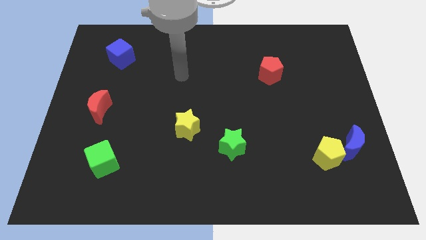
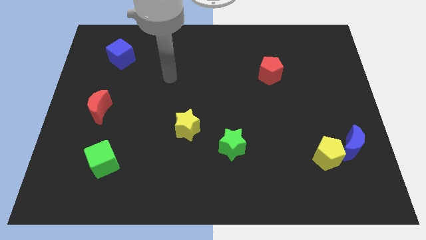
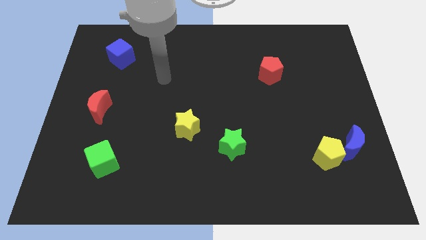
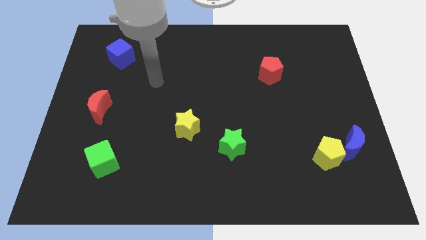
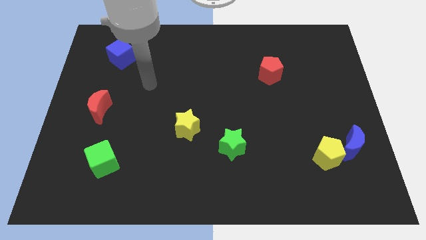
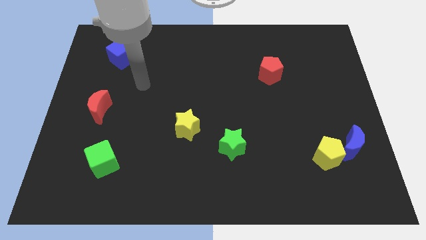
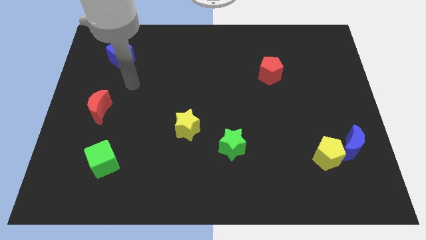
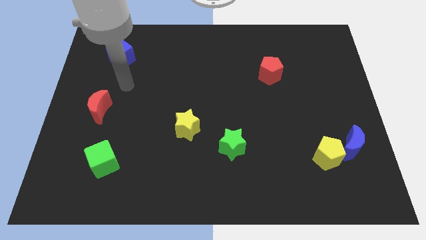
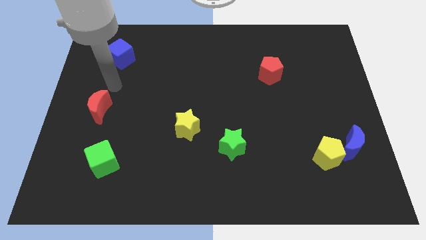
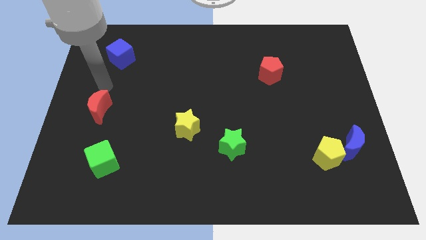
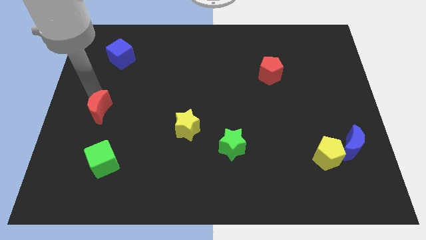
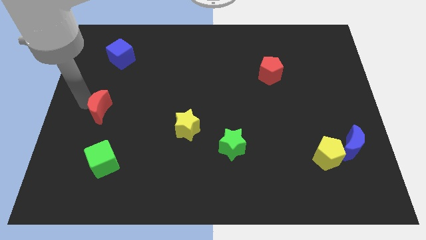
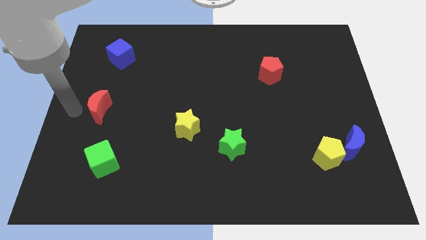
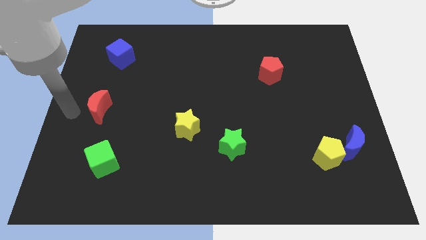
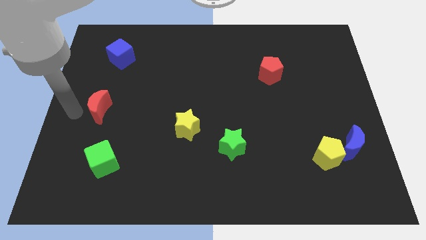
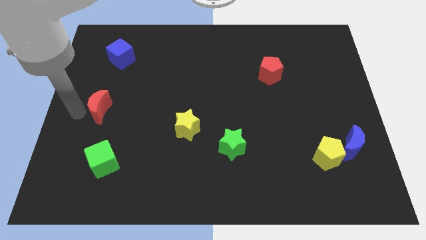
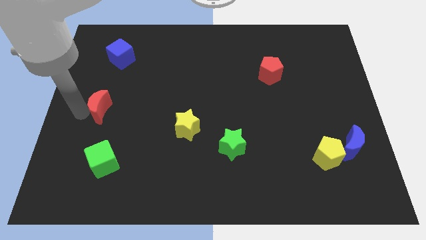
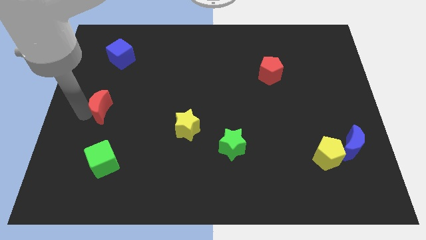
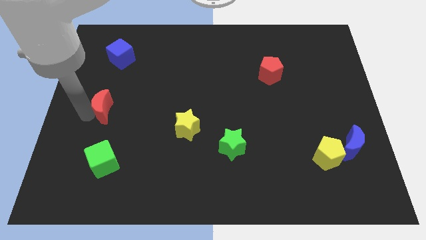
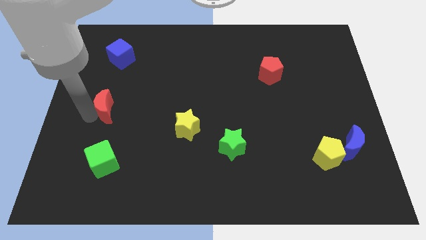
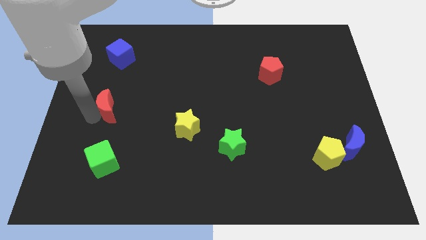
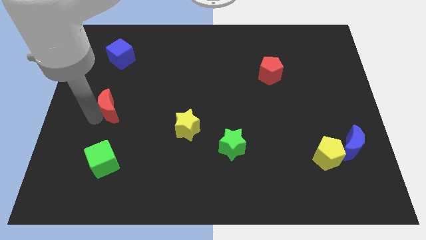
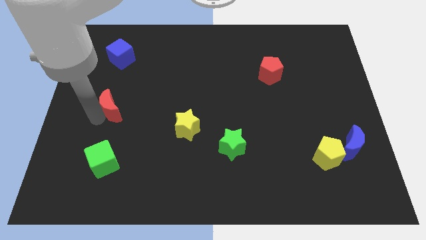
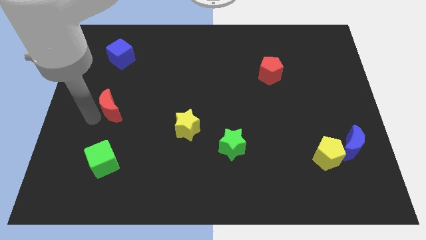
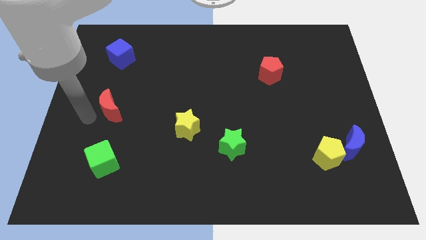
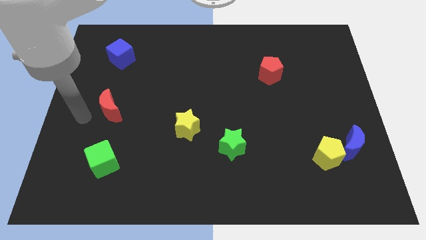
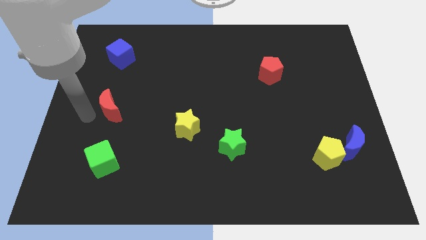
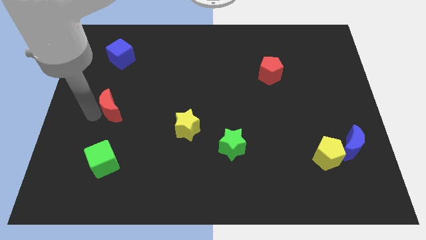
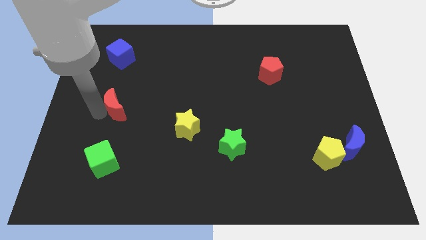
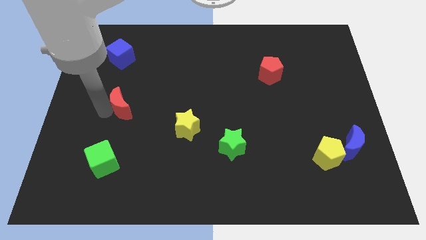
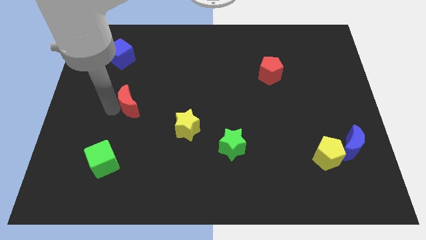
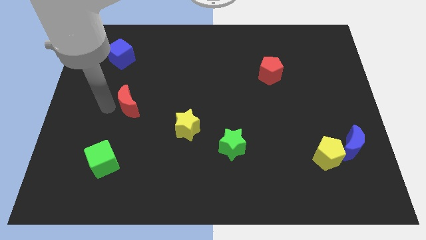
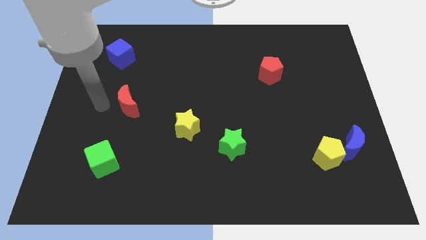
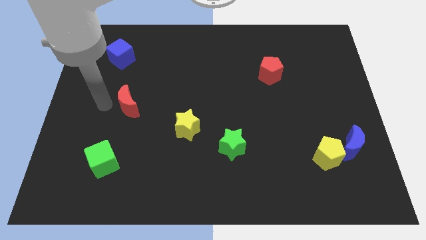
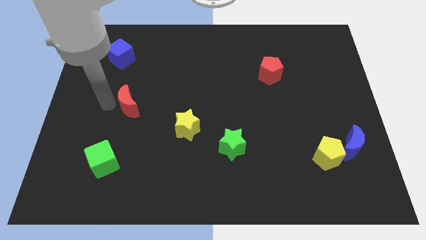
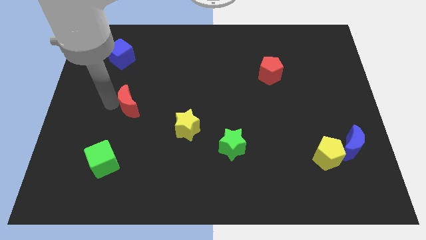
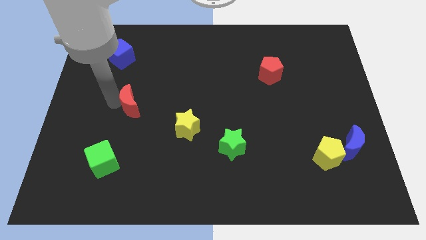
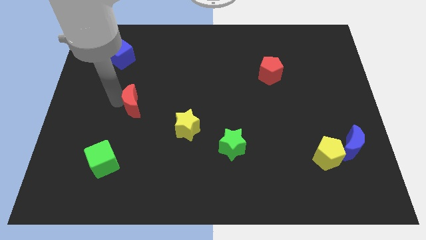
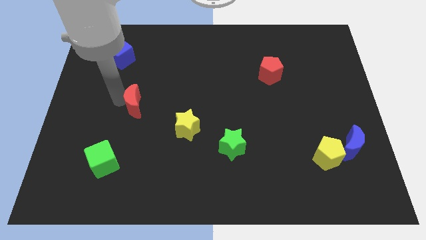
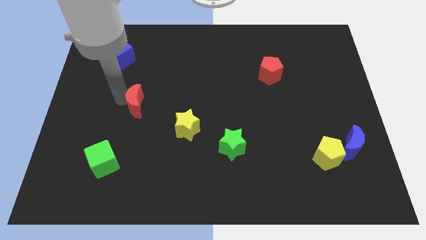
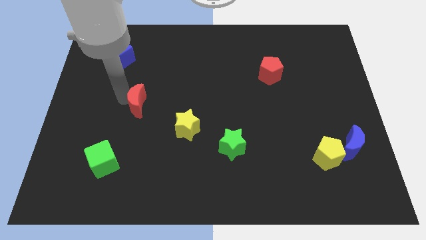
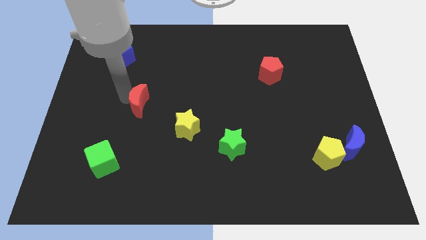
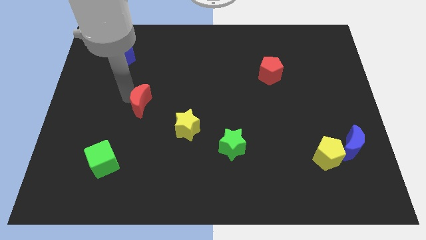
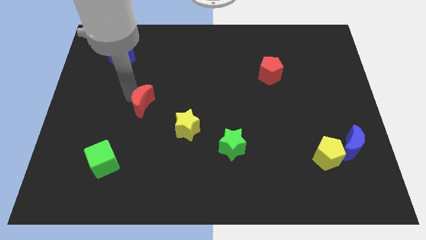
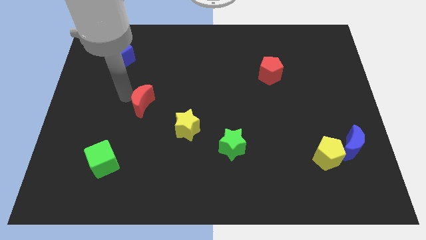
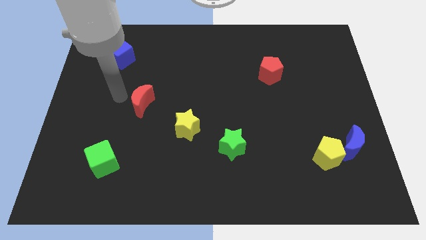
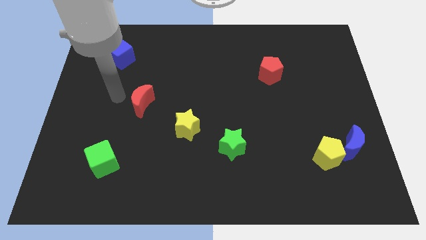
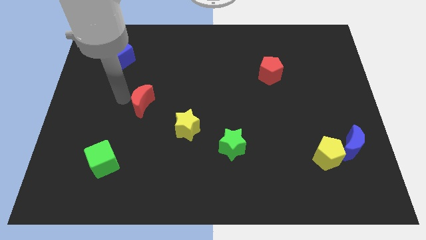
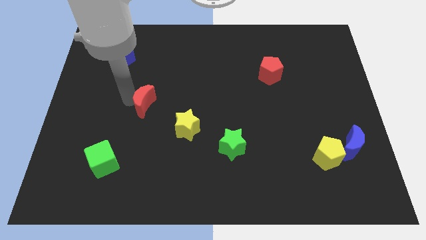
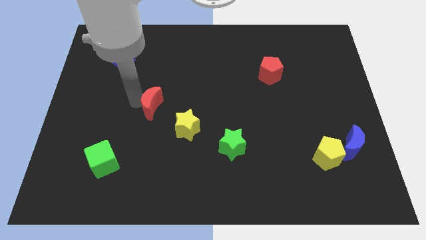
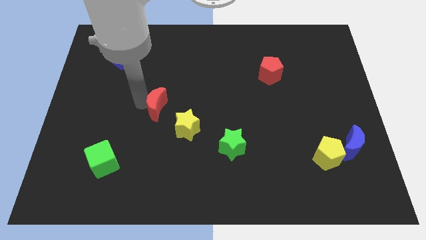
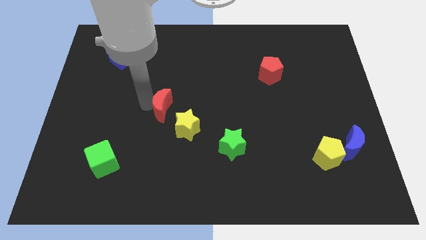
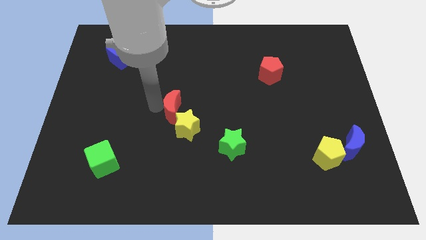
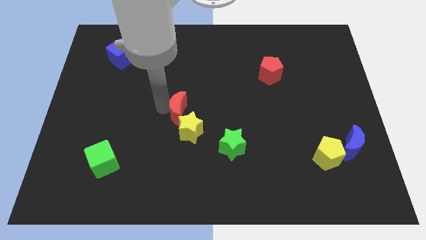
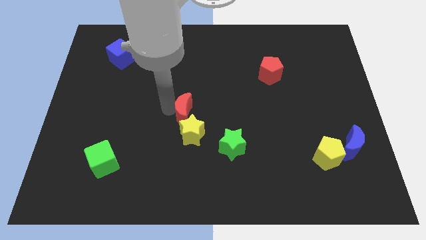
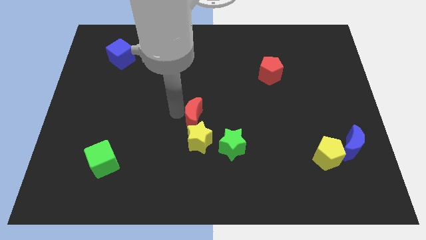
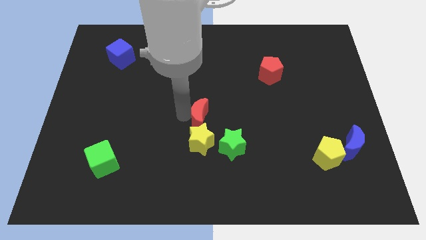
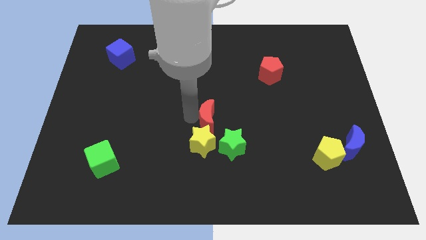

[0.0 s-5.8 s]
move the red moon diagonally up and to the right of the yellow star
